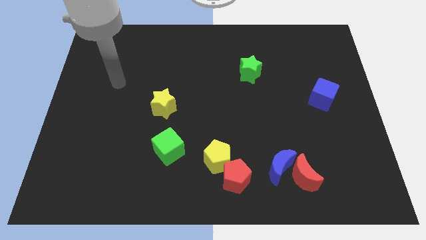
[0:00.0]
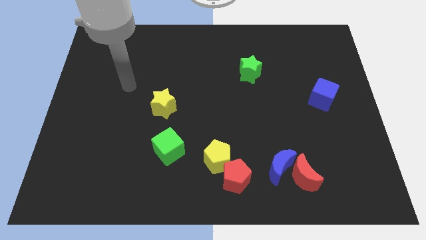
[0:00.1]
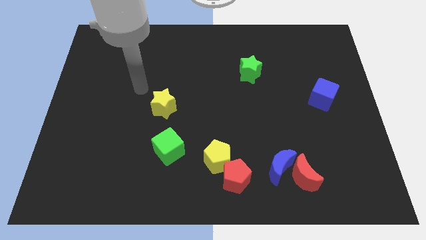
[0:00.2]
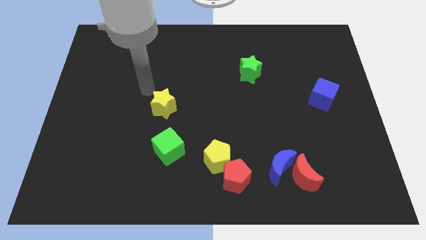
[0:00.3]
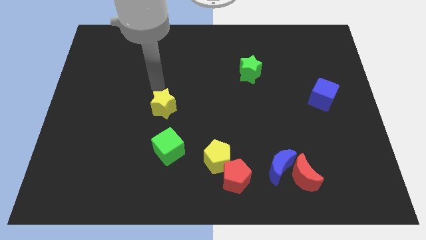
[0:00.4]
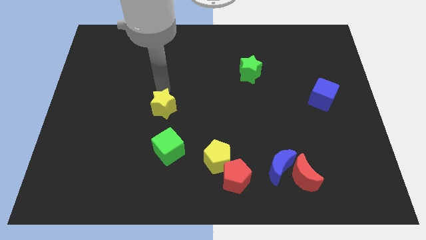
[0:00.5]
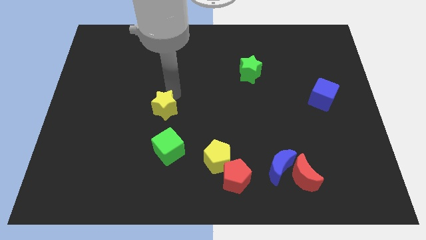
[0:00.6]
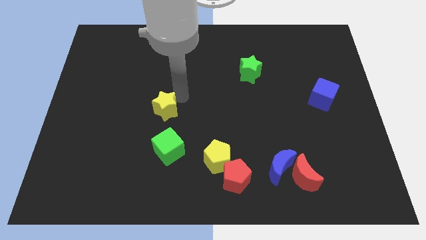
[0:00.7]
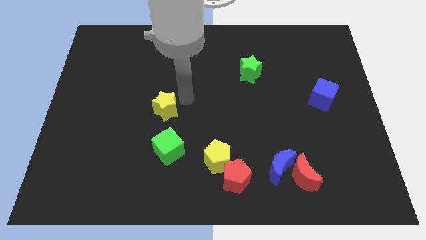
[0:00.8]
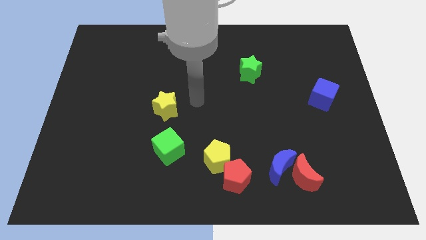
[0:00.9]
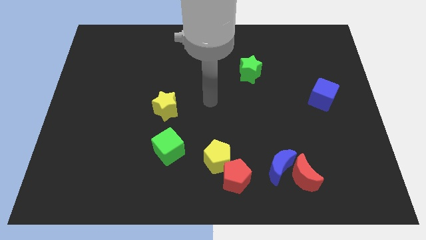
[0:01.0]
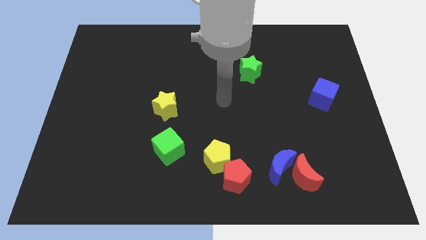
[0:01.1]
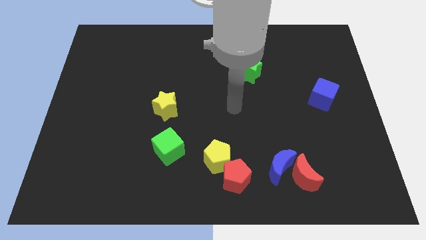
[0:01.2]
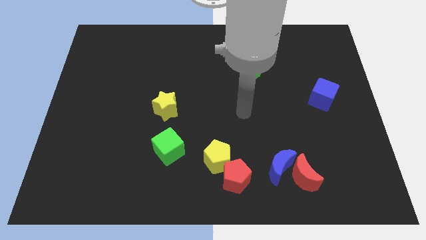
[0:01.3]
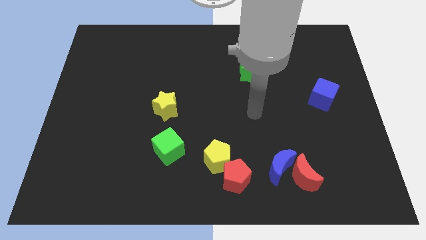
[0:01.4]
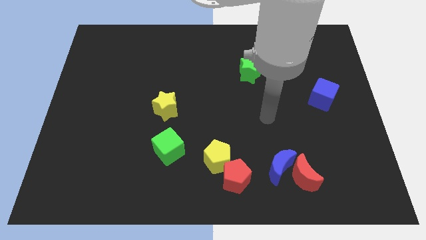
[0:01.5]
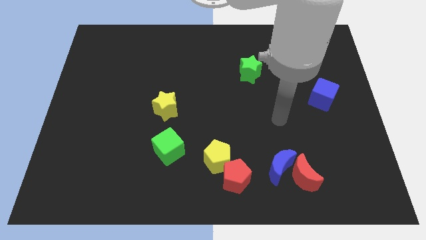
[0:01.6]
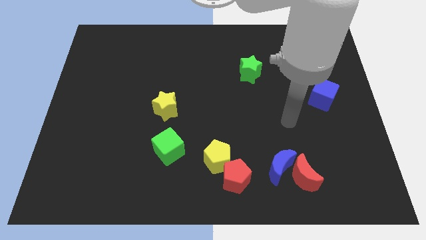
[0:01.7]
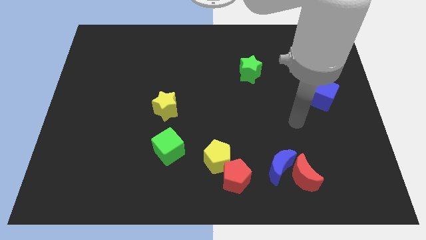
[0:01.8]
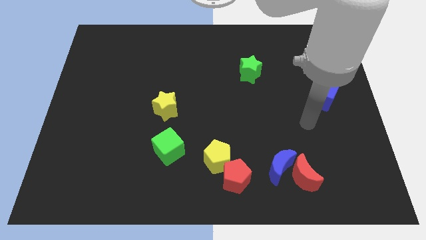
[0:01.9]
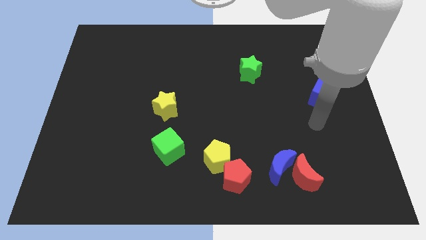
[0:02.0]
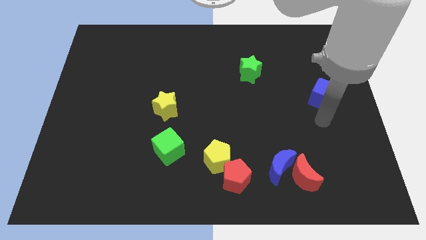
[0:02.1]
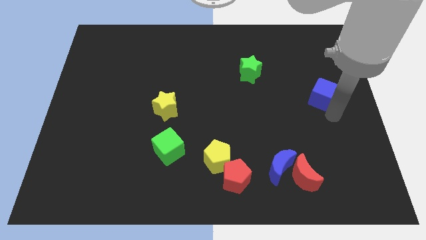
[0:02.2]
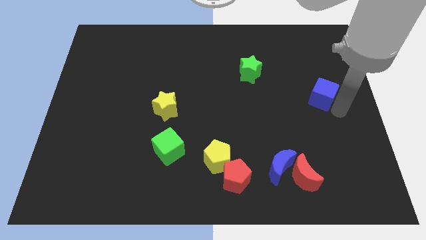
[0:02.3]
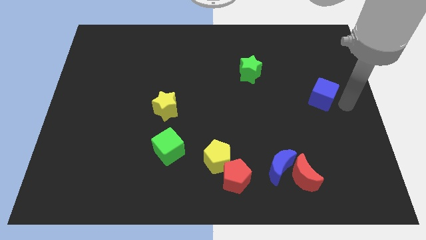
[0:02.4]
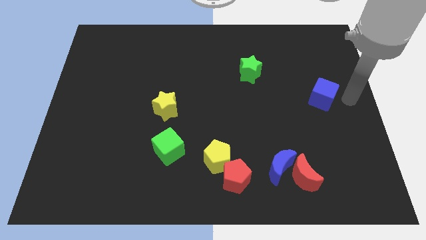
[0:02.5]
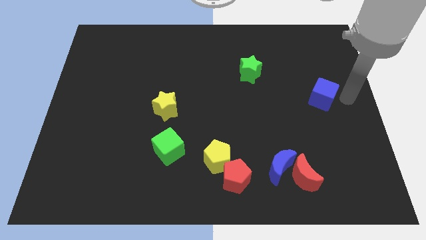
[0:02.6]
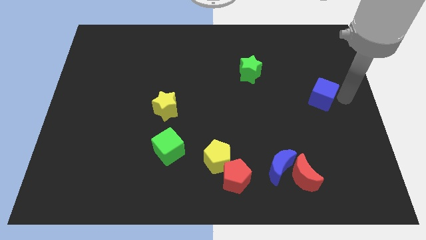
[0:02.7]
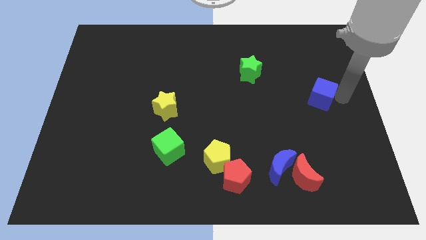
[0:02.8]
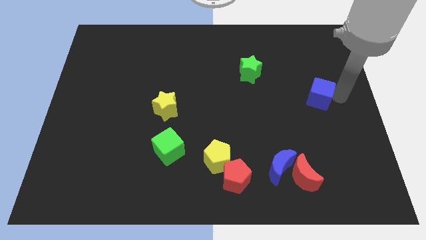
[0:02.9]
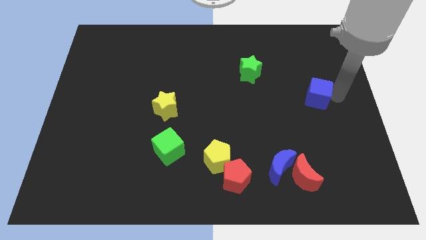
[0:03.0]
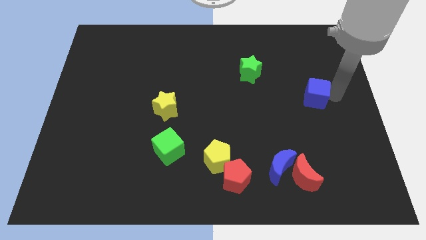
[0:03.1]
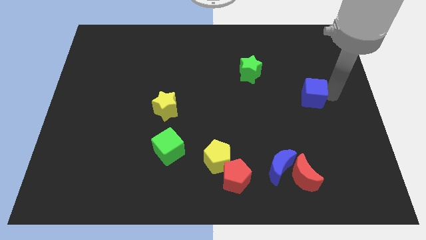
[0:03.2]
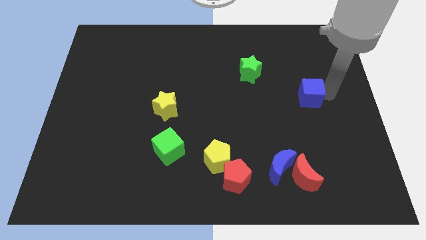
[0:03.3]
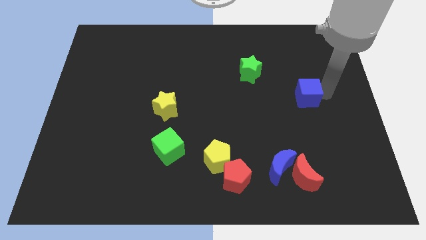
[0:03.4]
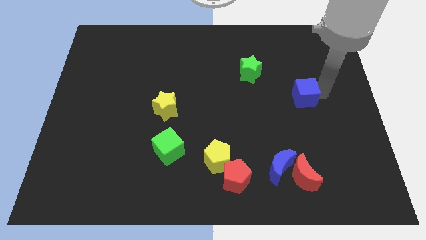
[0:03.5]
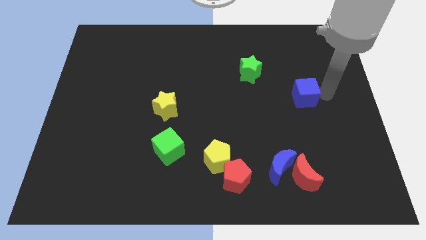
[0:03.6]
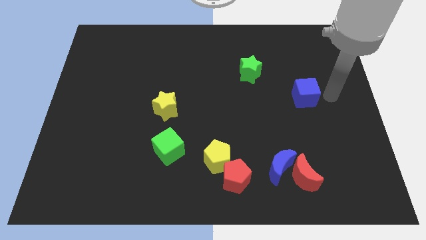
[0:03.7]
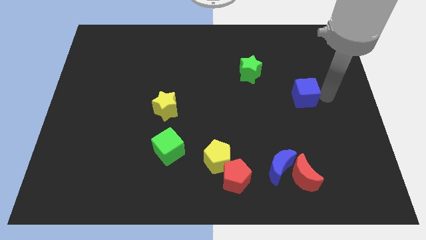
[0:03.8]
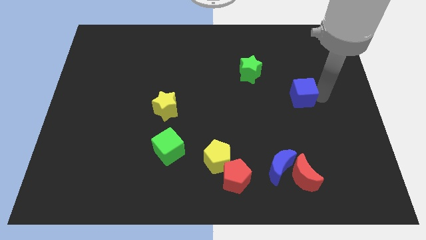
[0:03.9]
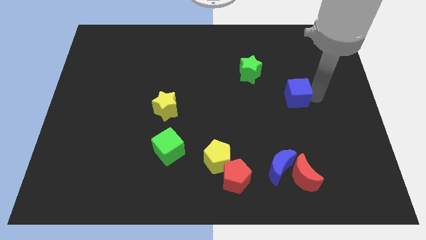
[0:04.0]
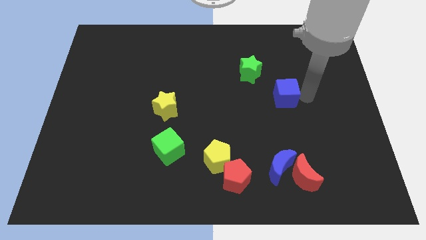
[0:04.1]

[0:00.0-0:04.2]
push the blue cube left slightly

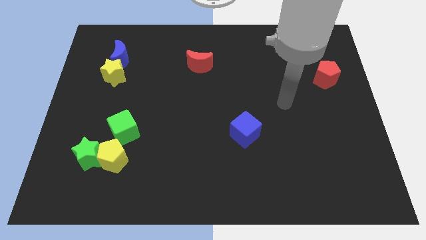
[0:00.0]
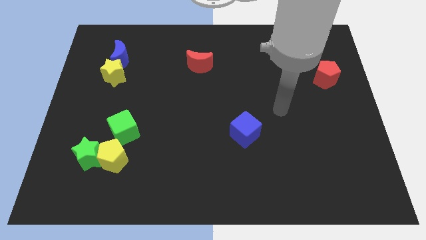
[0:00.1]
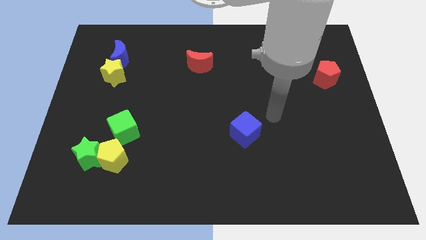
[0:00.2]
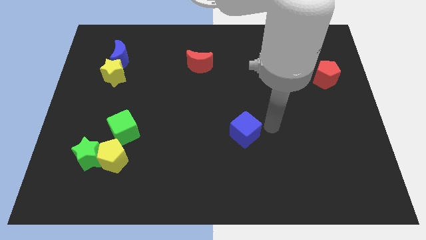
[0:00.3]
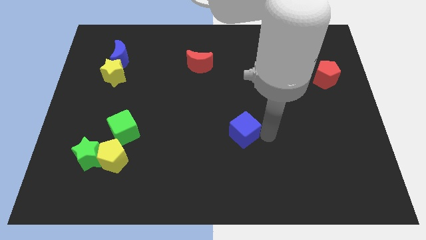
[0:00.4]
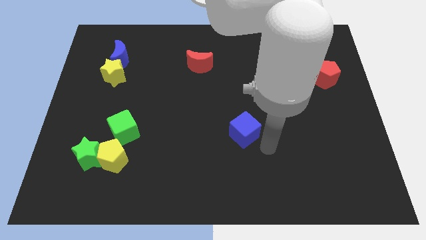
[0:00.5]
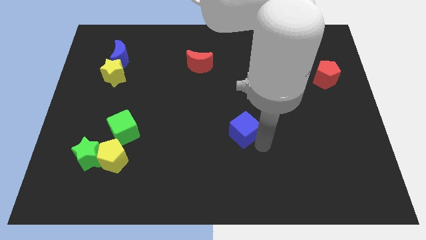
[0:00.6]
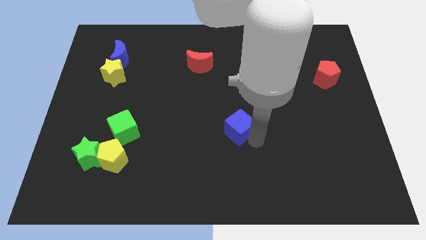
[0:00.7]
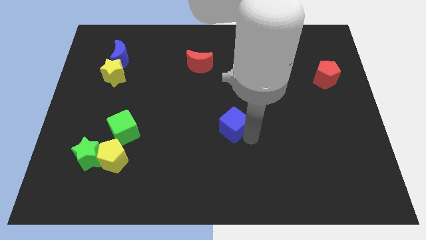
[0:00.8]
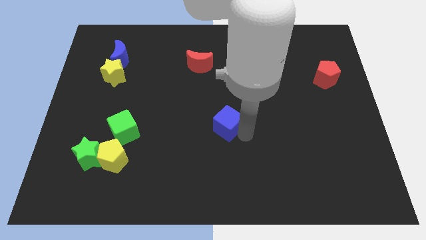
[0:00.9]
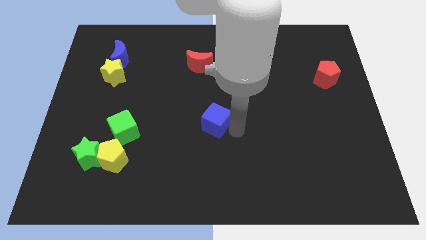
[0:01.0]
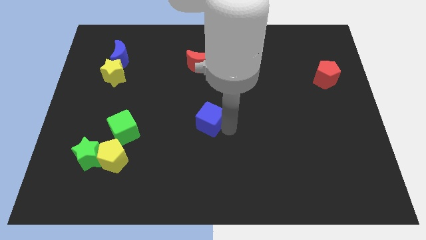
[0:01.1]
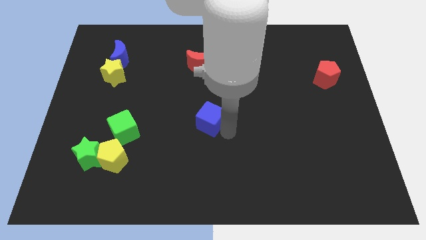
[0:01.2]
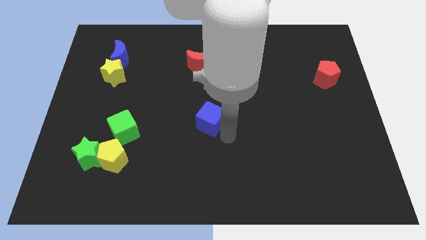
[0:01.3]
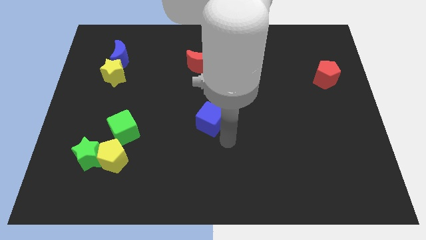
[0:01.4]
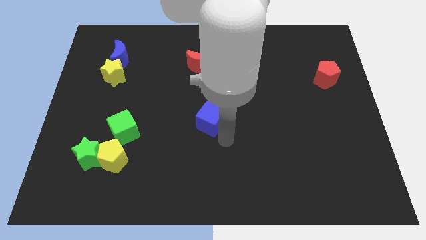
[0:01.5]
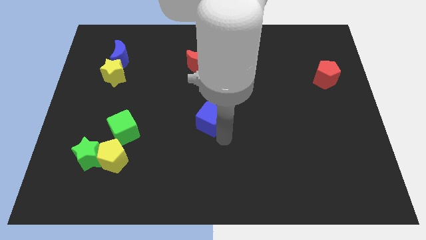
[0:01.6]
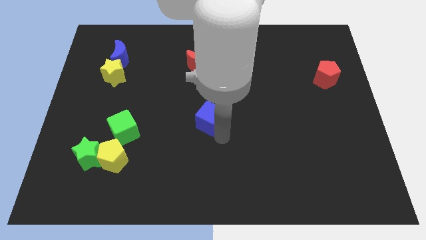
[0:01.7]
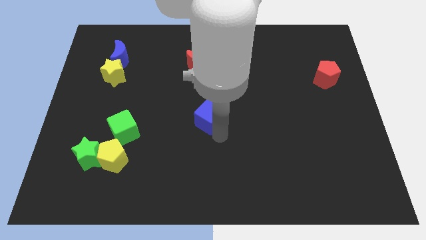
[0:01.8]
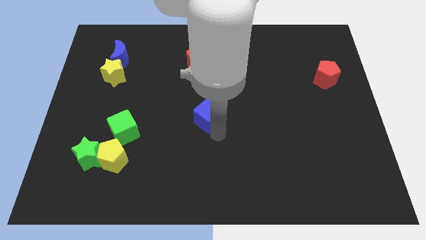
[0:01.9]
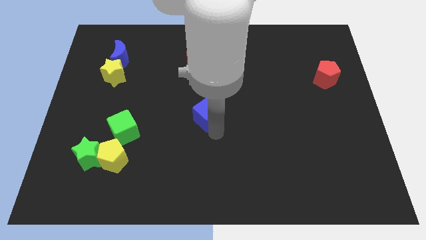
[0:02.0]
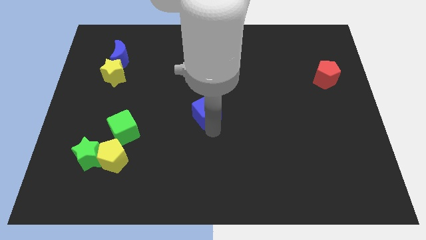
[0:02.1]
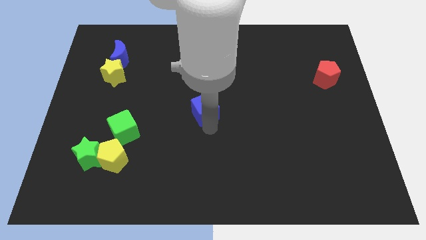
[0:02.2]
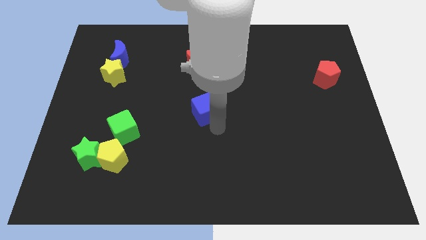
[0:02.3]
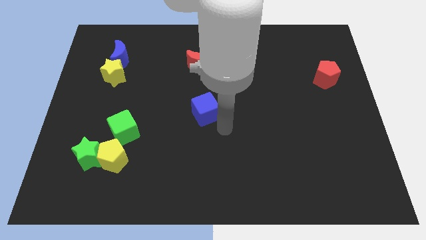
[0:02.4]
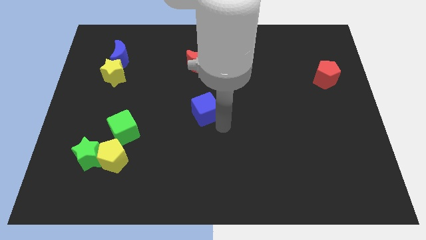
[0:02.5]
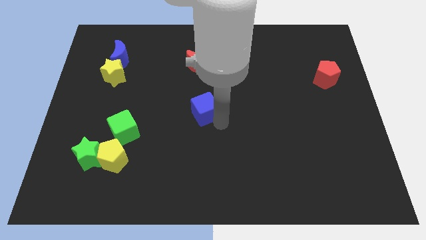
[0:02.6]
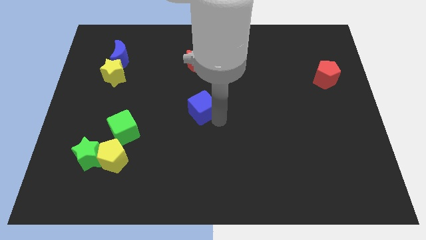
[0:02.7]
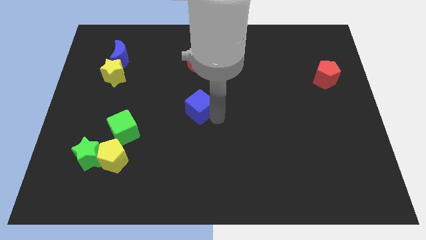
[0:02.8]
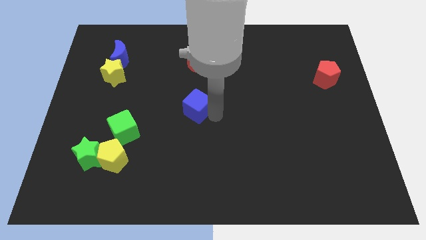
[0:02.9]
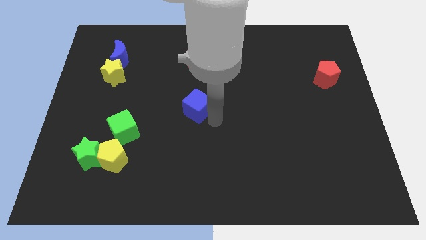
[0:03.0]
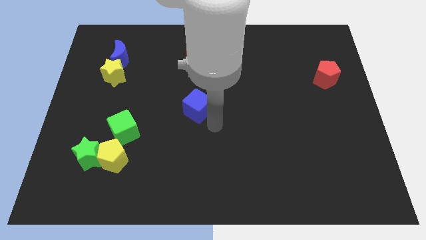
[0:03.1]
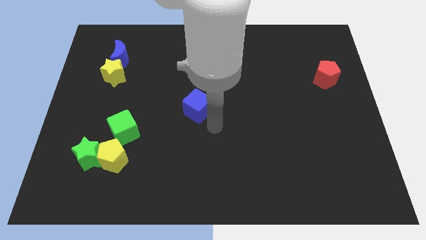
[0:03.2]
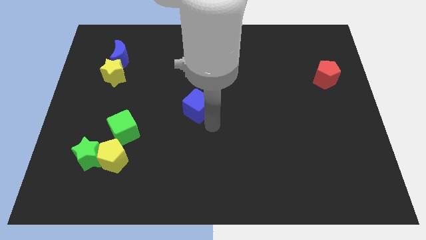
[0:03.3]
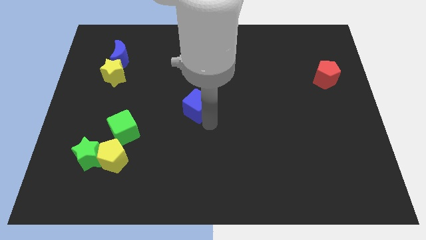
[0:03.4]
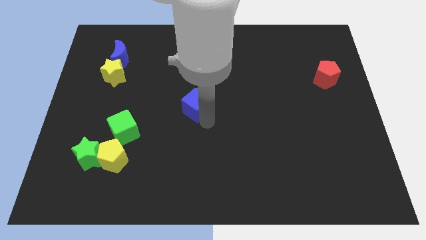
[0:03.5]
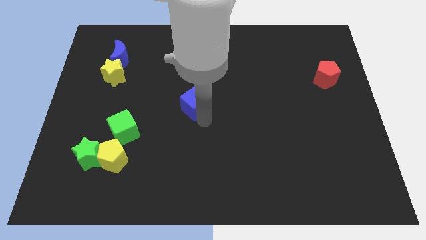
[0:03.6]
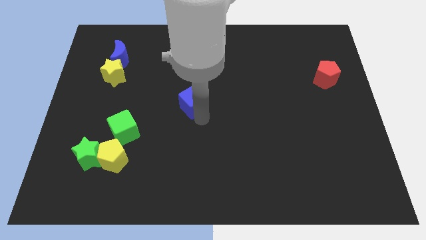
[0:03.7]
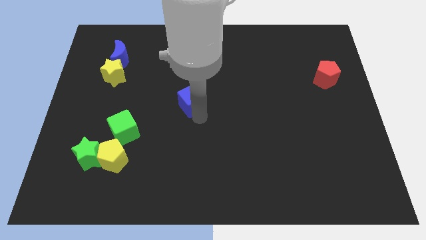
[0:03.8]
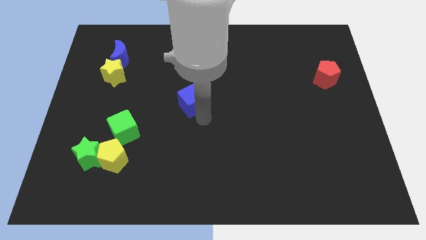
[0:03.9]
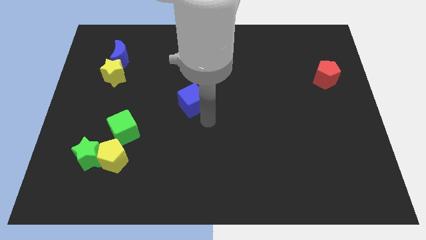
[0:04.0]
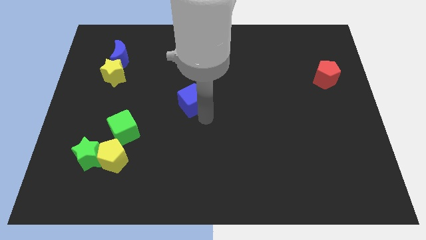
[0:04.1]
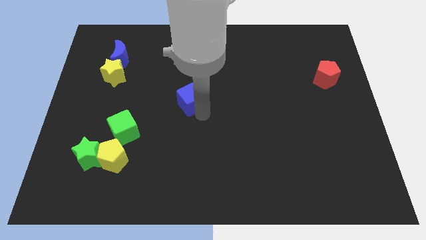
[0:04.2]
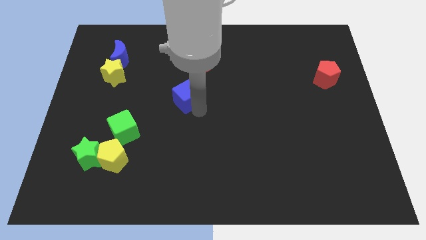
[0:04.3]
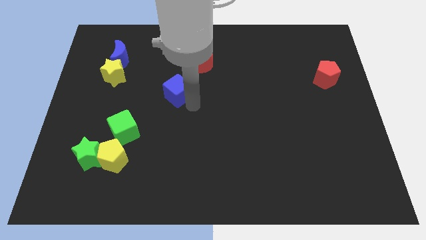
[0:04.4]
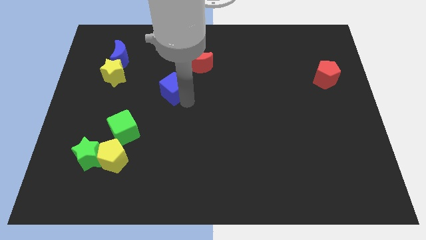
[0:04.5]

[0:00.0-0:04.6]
slide the blue cube upwards and left diagonally
